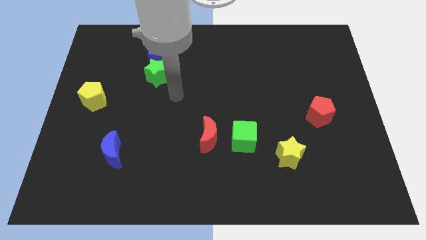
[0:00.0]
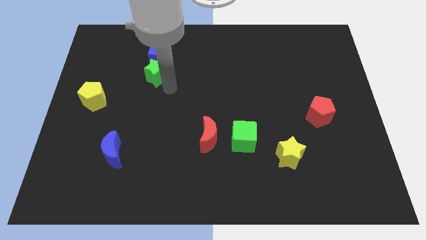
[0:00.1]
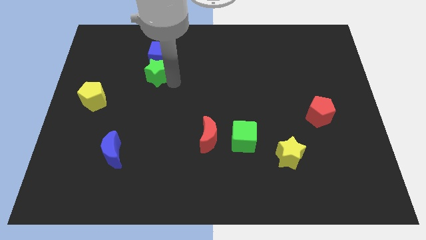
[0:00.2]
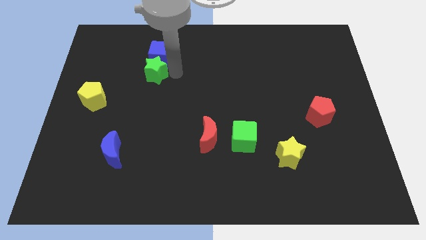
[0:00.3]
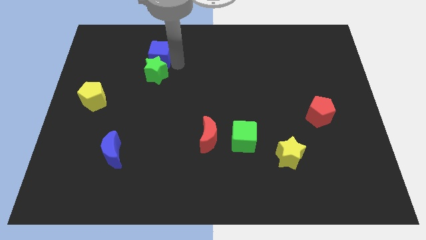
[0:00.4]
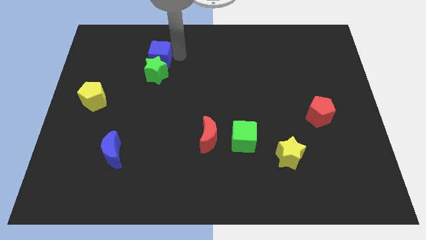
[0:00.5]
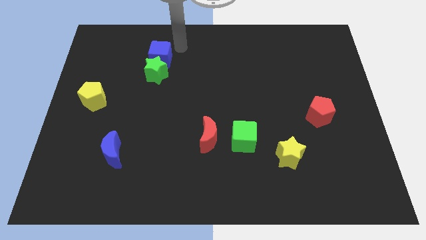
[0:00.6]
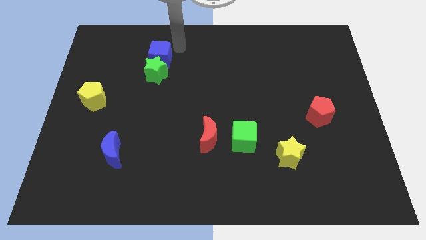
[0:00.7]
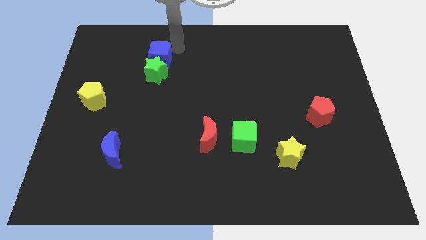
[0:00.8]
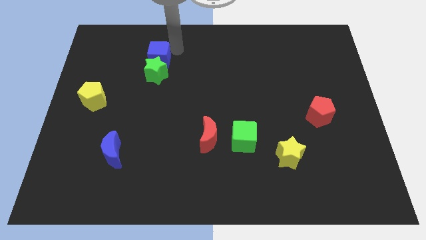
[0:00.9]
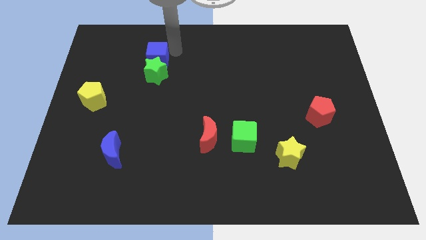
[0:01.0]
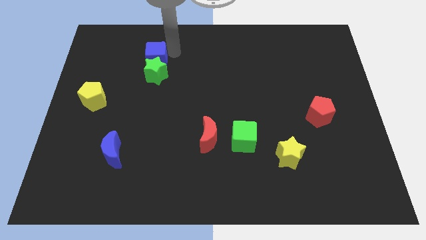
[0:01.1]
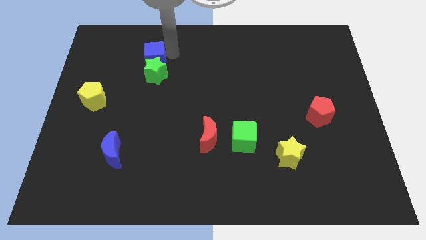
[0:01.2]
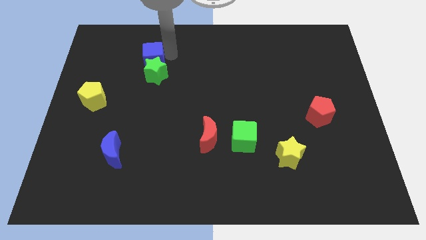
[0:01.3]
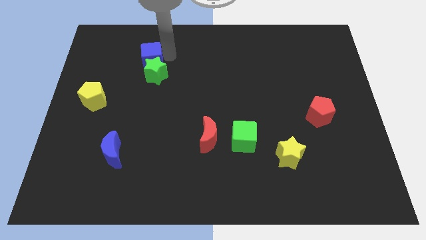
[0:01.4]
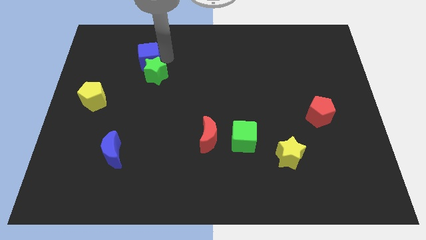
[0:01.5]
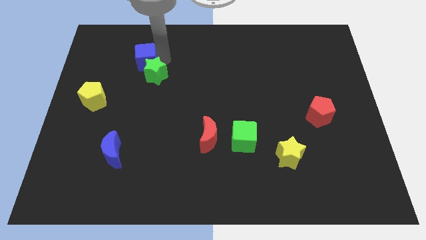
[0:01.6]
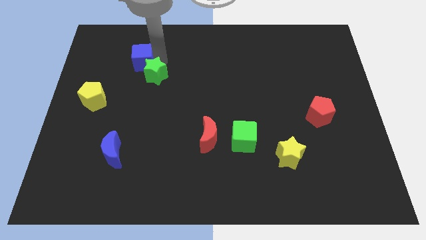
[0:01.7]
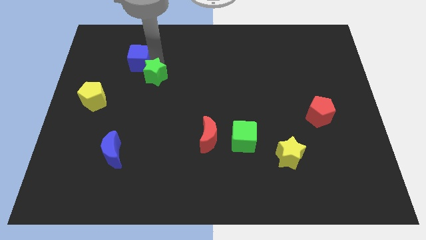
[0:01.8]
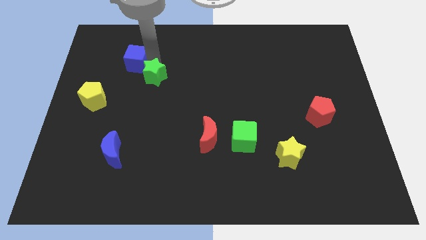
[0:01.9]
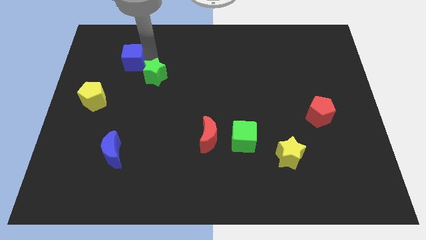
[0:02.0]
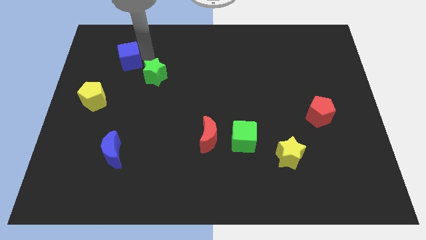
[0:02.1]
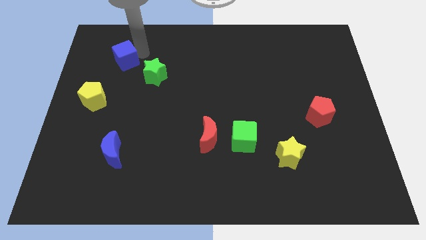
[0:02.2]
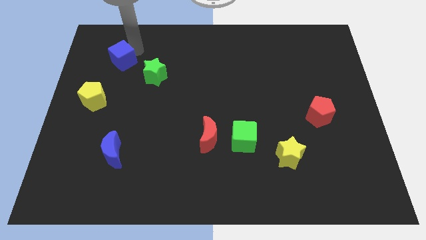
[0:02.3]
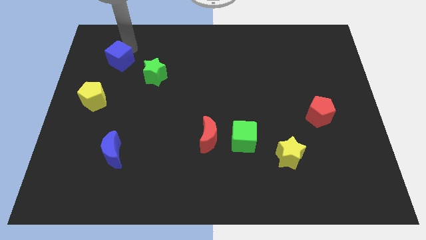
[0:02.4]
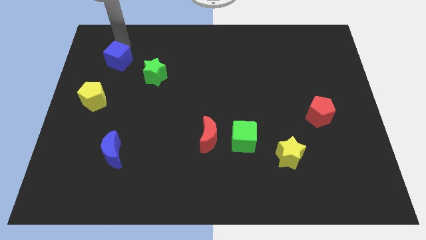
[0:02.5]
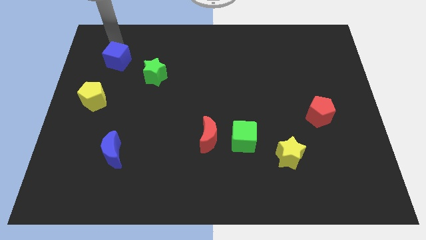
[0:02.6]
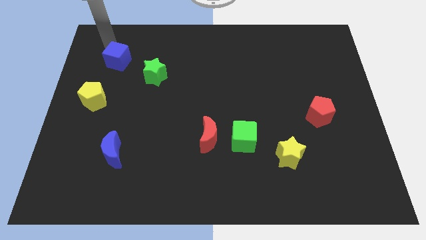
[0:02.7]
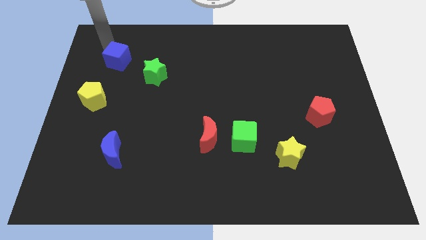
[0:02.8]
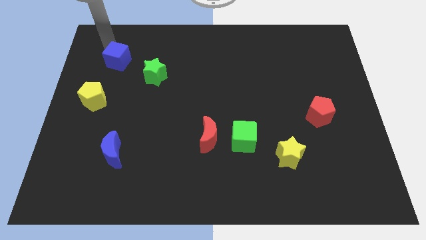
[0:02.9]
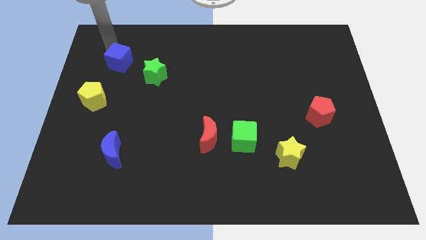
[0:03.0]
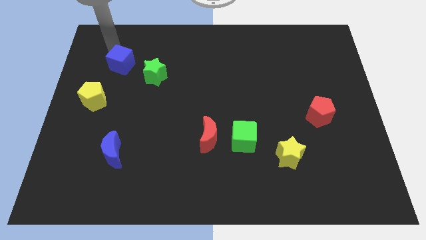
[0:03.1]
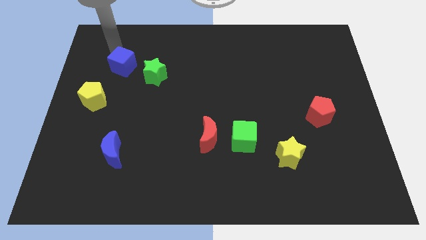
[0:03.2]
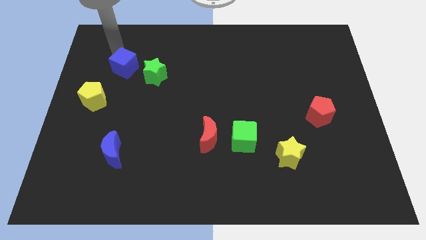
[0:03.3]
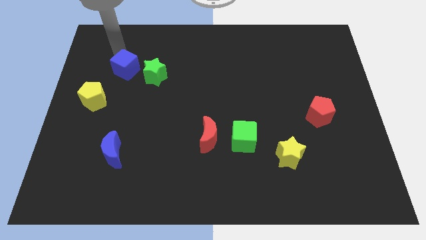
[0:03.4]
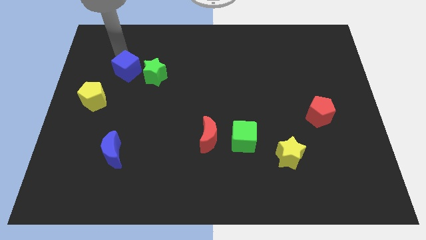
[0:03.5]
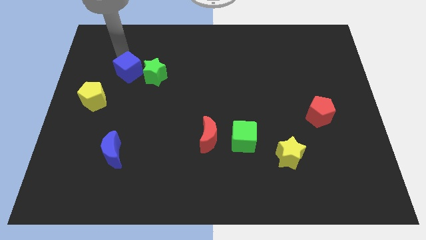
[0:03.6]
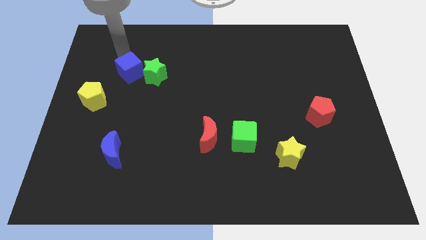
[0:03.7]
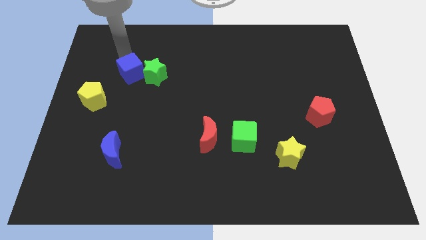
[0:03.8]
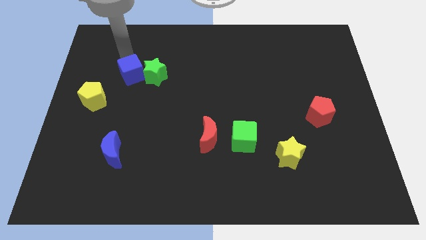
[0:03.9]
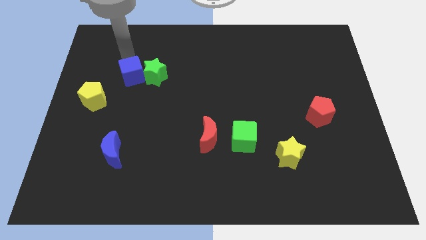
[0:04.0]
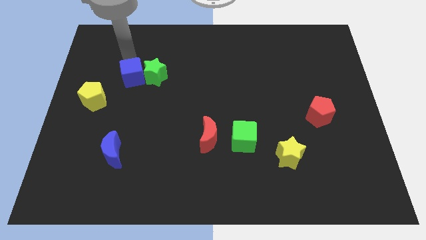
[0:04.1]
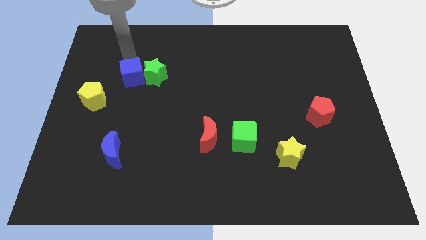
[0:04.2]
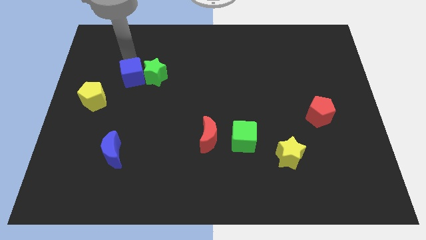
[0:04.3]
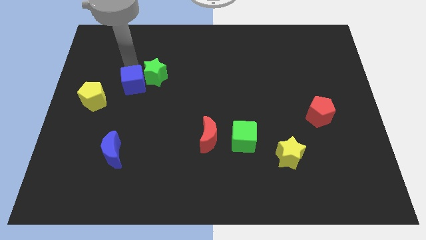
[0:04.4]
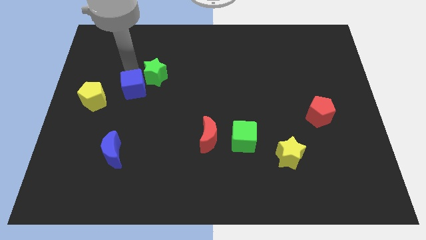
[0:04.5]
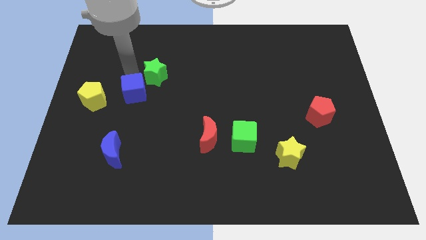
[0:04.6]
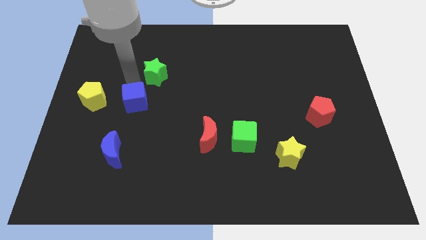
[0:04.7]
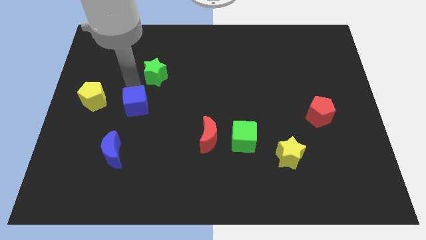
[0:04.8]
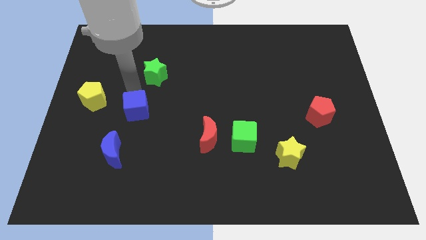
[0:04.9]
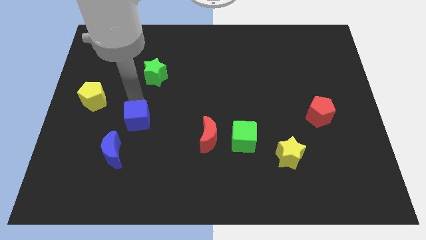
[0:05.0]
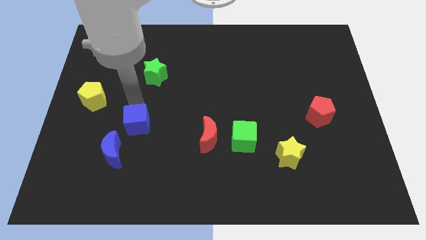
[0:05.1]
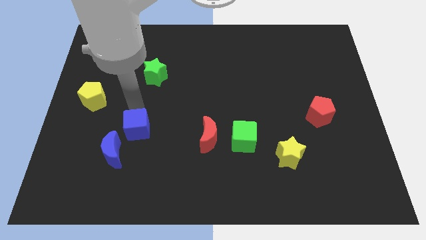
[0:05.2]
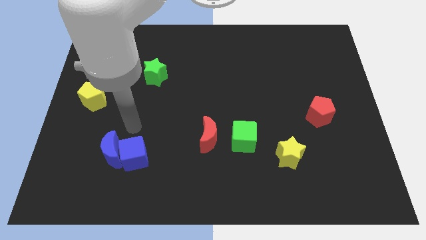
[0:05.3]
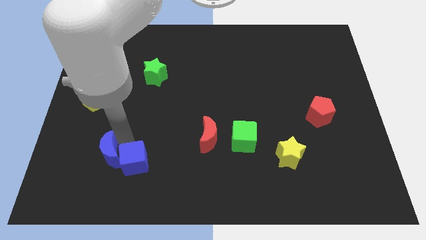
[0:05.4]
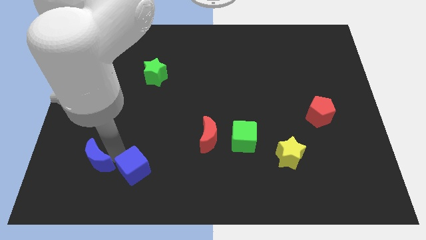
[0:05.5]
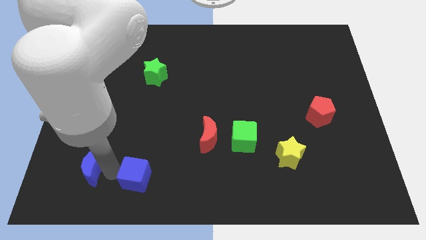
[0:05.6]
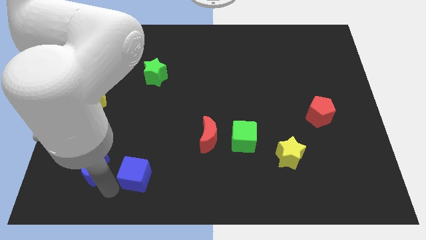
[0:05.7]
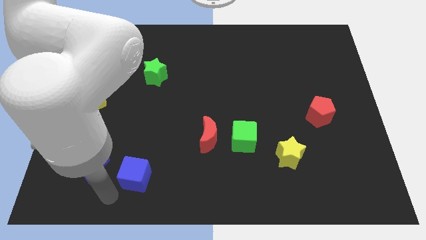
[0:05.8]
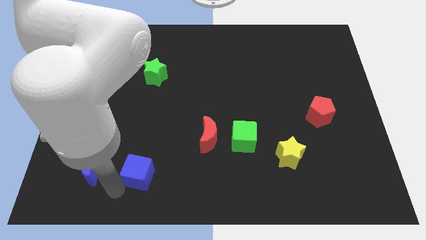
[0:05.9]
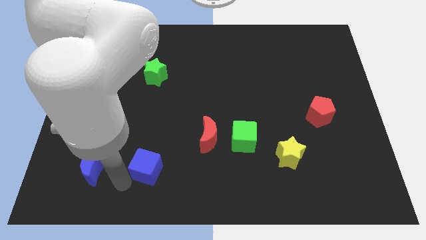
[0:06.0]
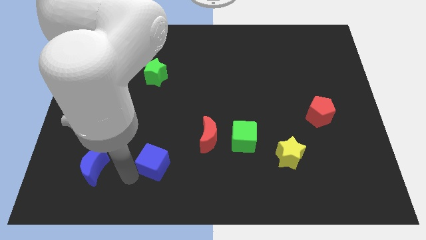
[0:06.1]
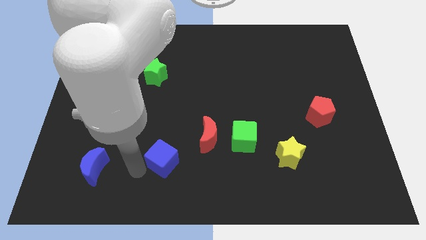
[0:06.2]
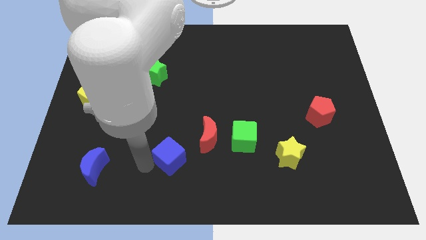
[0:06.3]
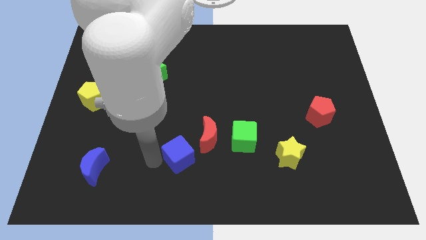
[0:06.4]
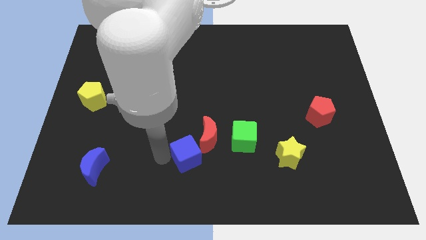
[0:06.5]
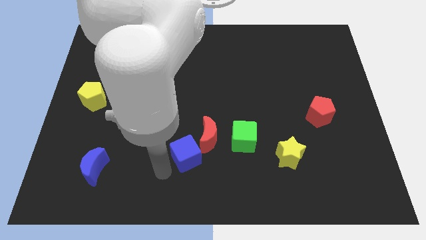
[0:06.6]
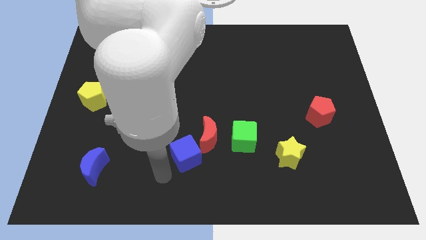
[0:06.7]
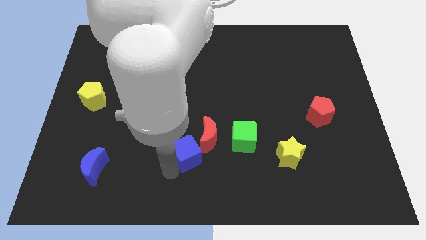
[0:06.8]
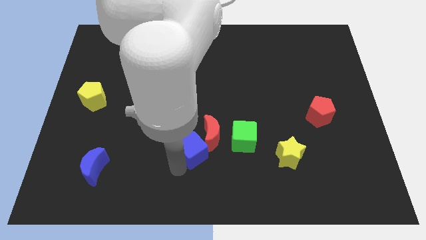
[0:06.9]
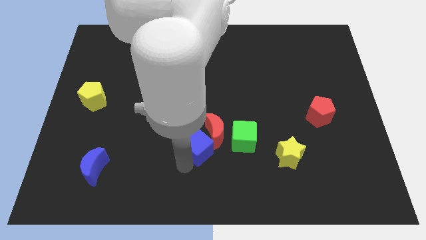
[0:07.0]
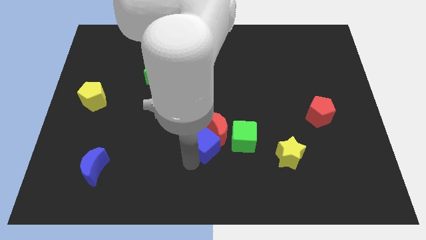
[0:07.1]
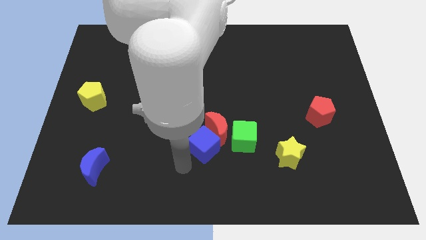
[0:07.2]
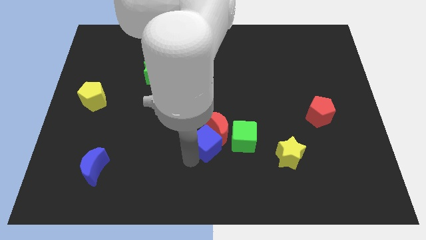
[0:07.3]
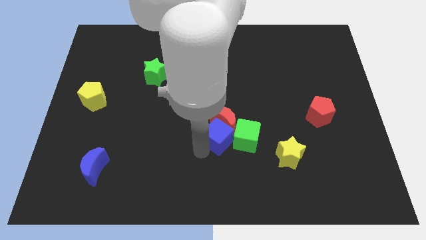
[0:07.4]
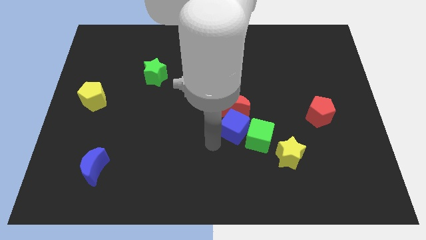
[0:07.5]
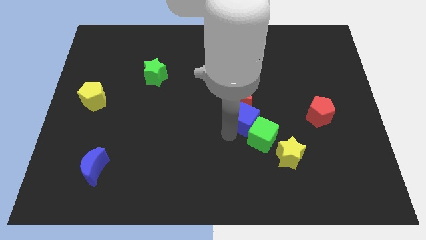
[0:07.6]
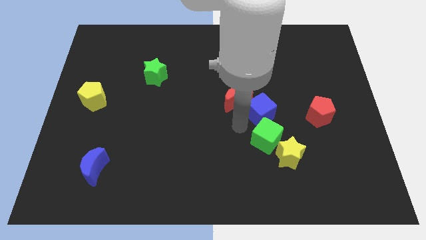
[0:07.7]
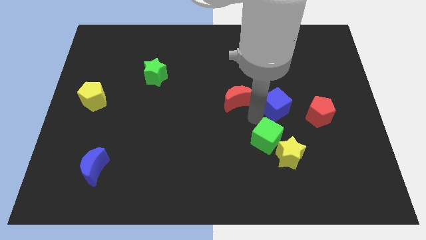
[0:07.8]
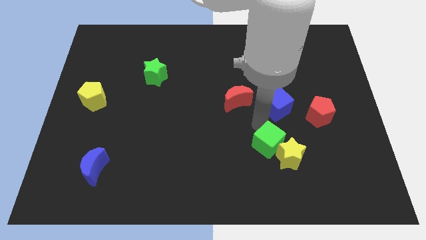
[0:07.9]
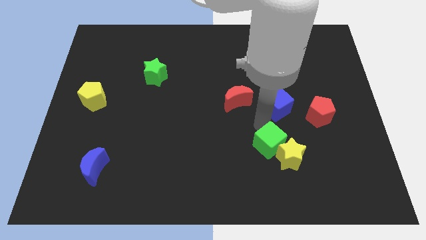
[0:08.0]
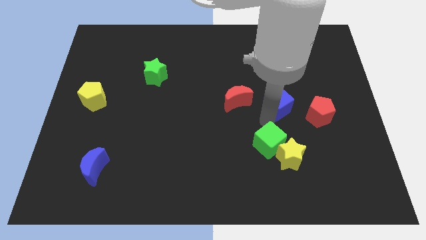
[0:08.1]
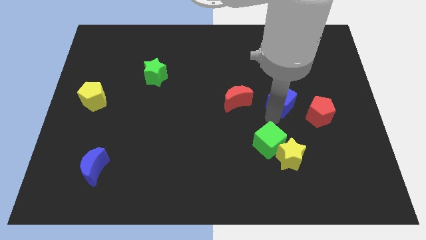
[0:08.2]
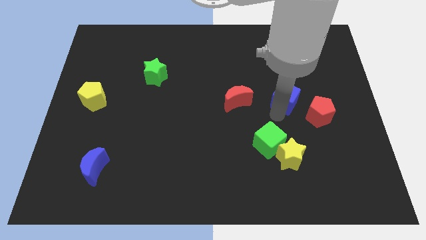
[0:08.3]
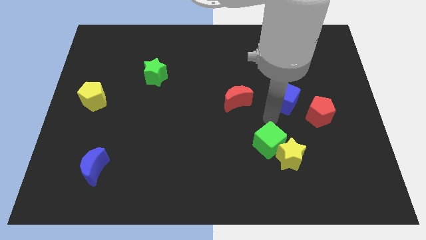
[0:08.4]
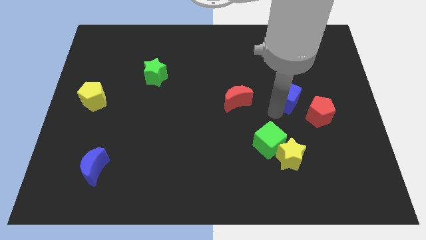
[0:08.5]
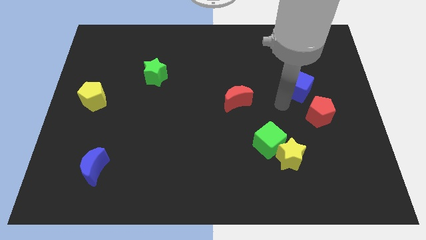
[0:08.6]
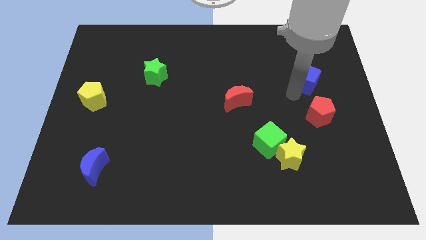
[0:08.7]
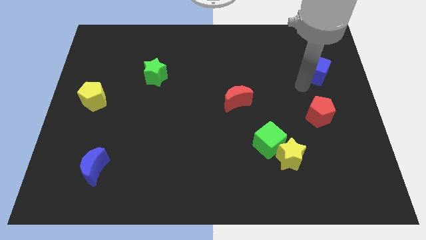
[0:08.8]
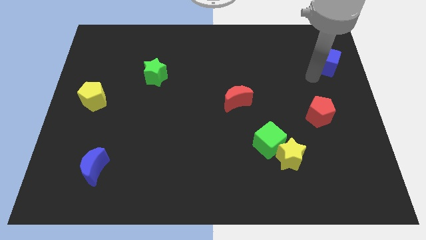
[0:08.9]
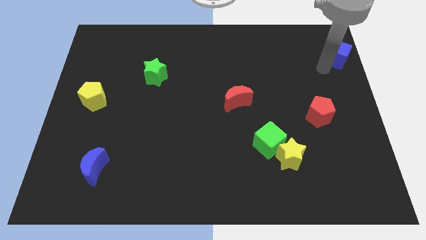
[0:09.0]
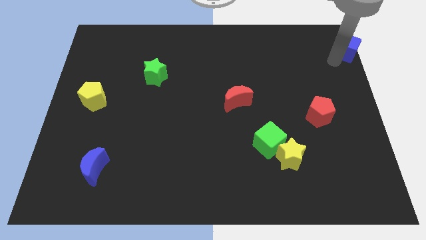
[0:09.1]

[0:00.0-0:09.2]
put the blue cube to the upper right corner
